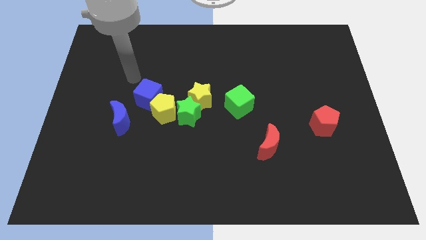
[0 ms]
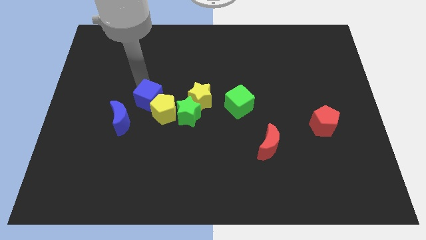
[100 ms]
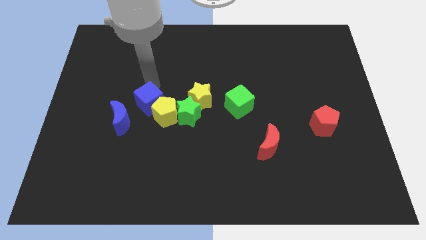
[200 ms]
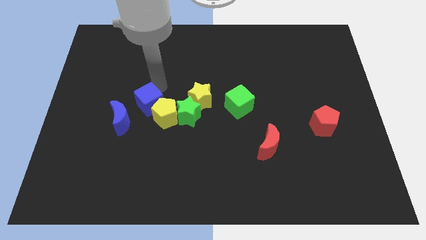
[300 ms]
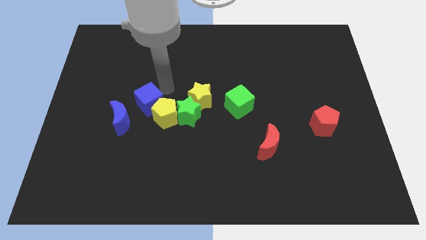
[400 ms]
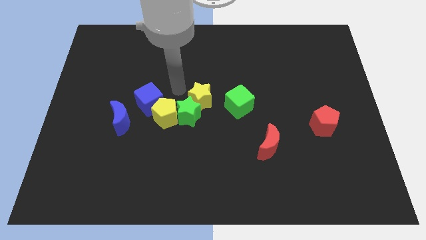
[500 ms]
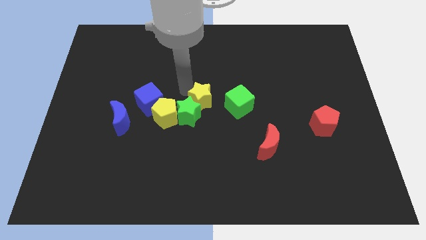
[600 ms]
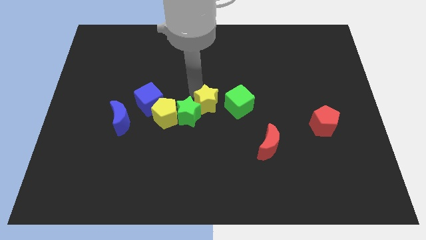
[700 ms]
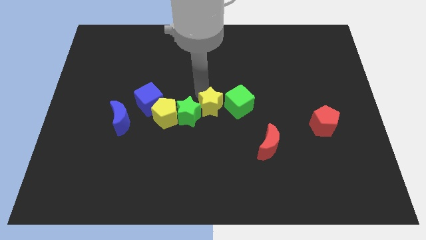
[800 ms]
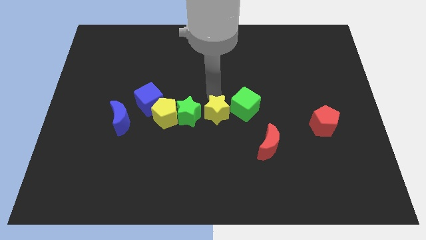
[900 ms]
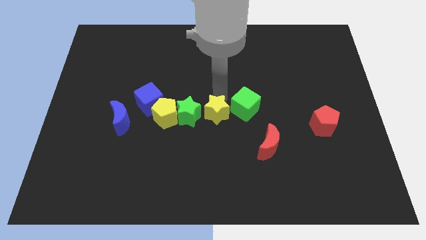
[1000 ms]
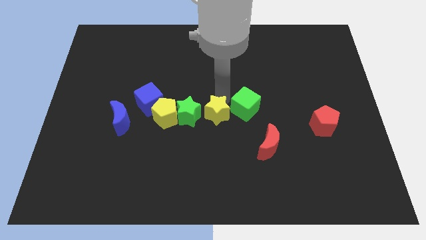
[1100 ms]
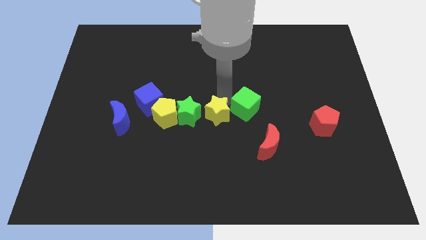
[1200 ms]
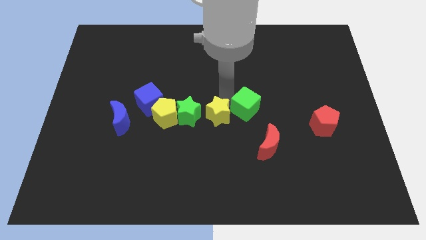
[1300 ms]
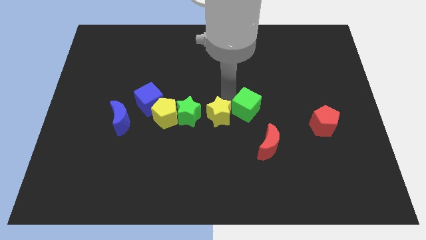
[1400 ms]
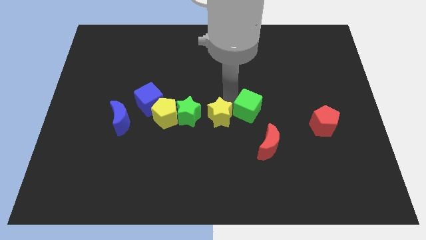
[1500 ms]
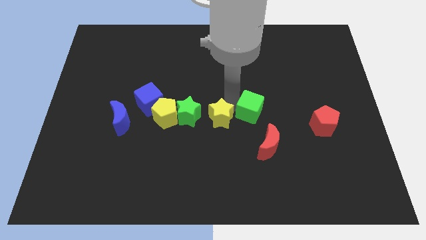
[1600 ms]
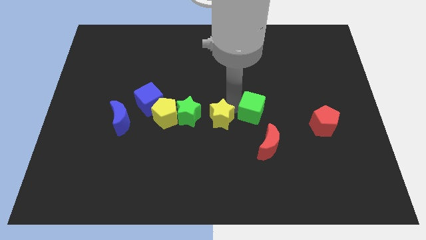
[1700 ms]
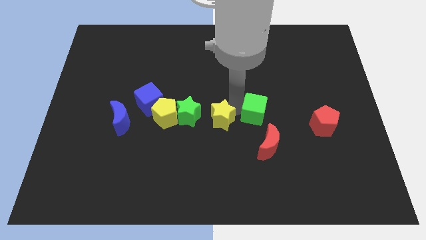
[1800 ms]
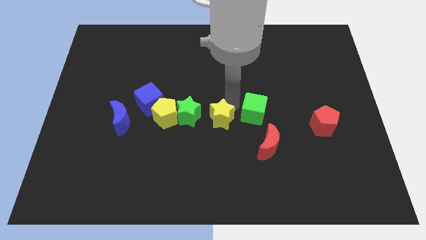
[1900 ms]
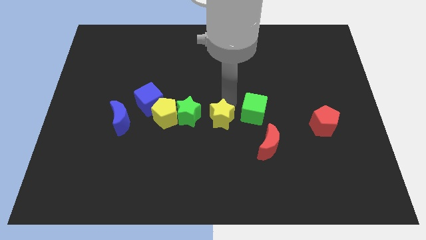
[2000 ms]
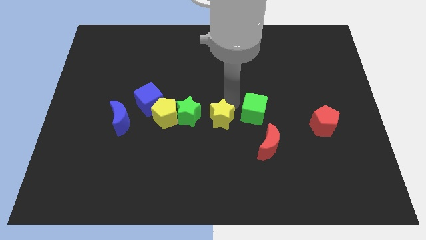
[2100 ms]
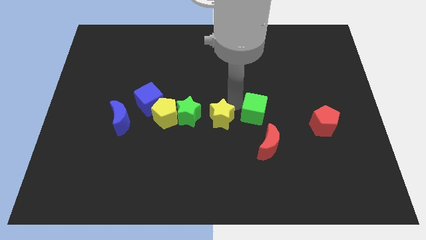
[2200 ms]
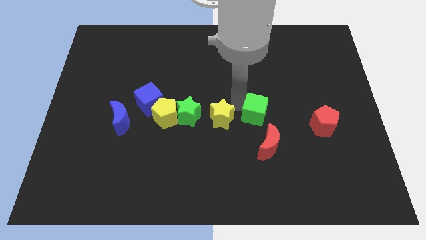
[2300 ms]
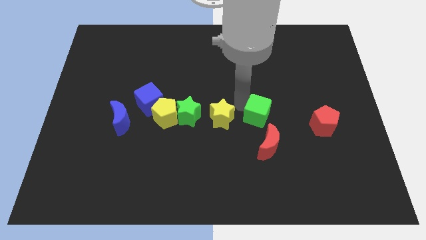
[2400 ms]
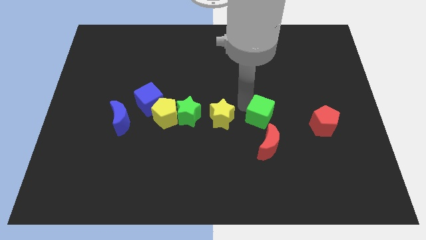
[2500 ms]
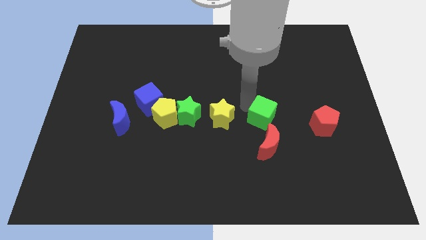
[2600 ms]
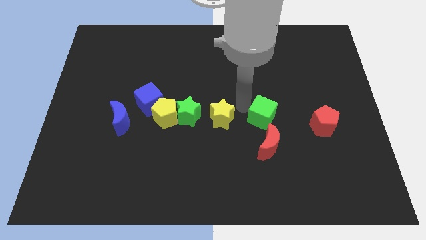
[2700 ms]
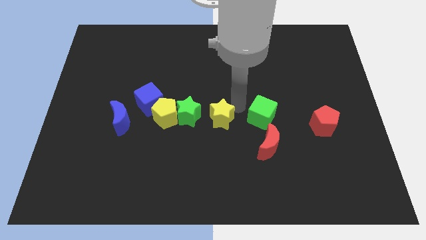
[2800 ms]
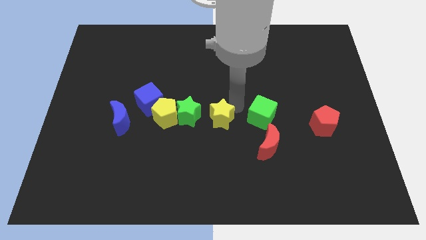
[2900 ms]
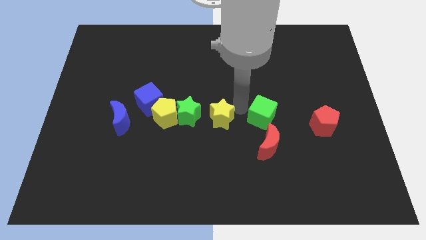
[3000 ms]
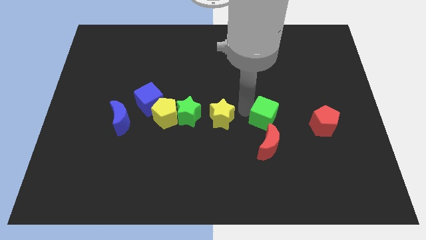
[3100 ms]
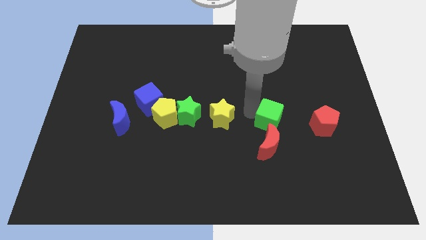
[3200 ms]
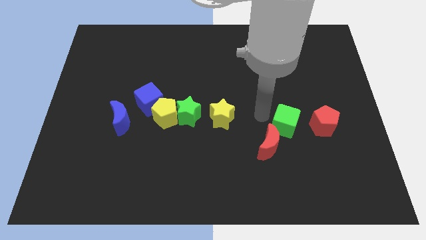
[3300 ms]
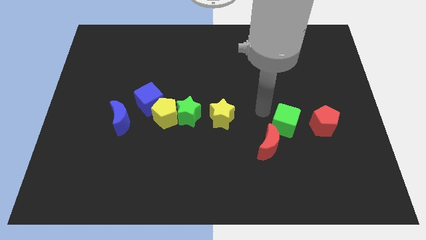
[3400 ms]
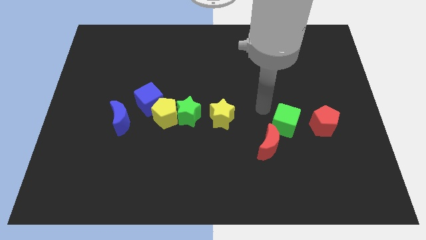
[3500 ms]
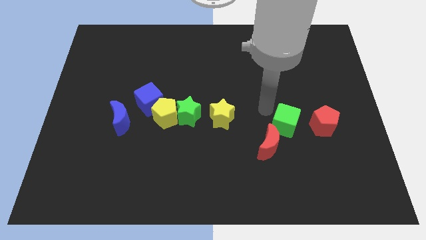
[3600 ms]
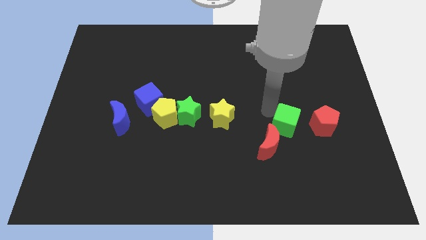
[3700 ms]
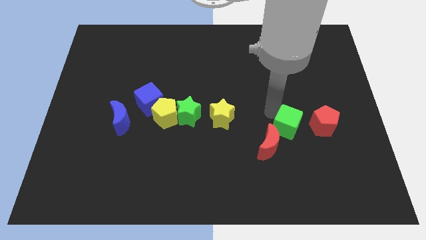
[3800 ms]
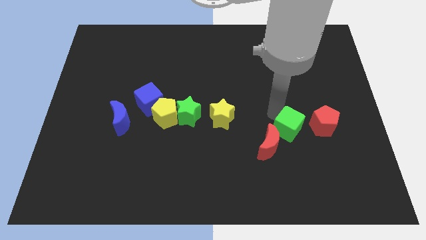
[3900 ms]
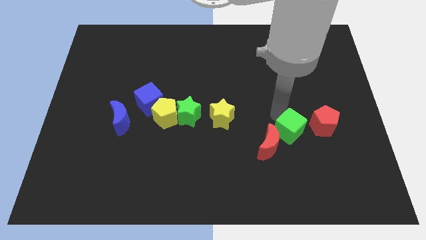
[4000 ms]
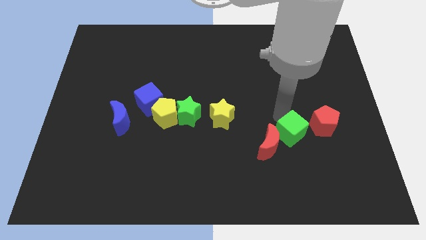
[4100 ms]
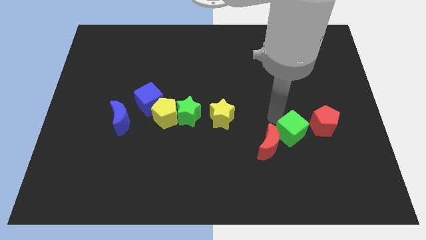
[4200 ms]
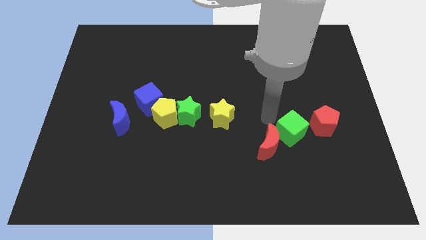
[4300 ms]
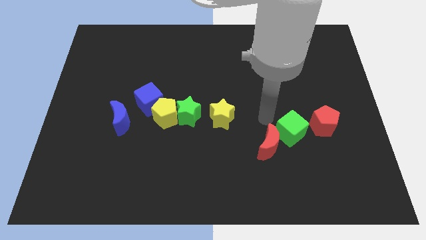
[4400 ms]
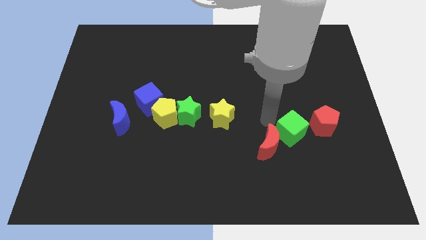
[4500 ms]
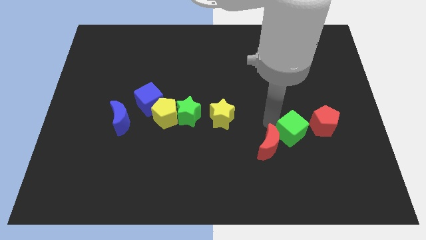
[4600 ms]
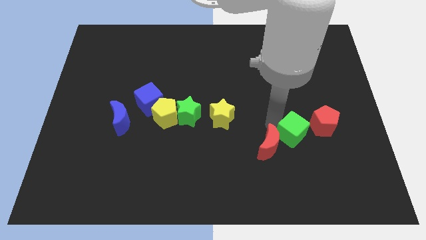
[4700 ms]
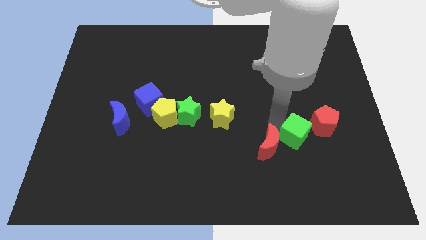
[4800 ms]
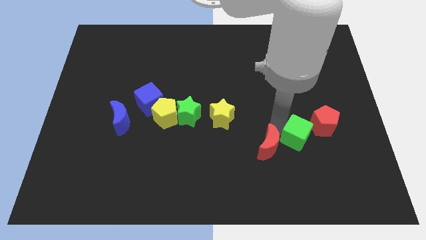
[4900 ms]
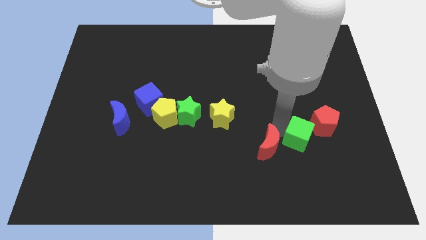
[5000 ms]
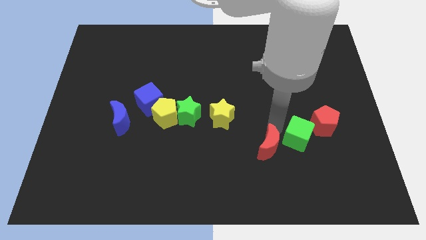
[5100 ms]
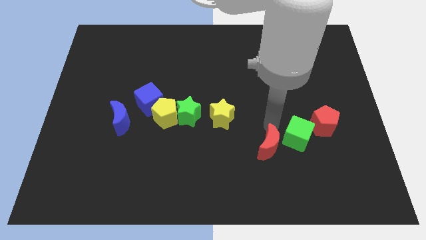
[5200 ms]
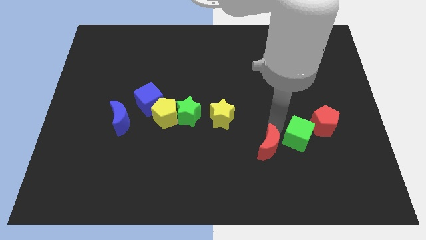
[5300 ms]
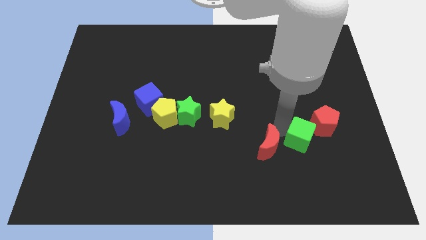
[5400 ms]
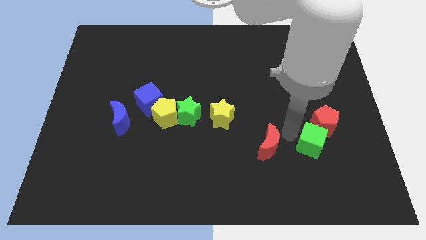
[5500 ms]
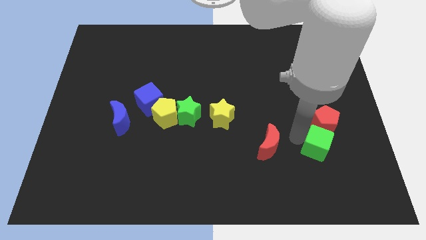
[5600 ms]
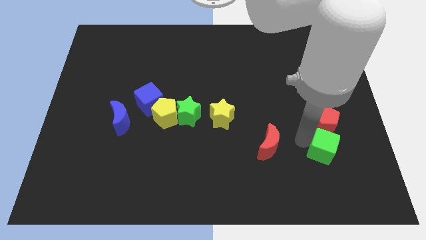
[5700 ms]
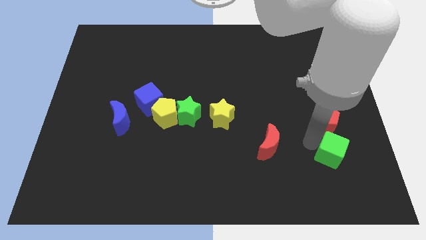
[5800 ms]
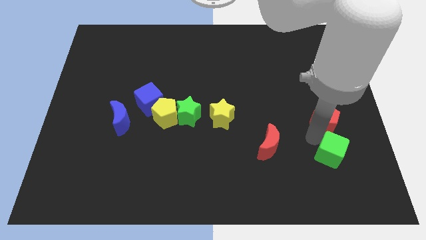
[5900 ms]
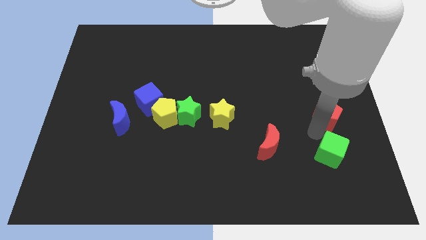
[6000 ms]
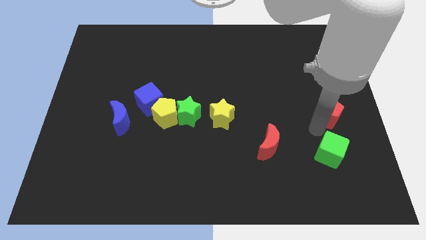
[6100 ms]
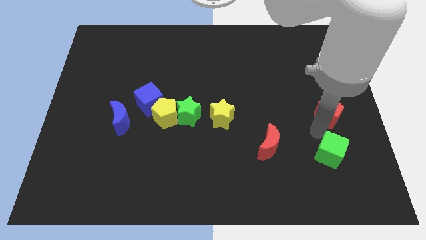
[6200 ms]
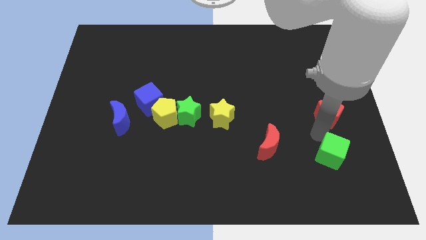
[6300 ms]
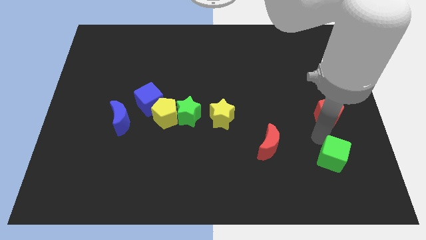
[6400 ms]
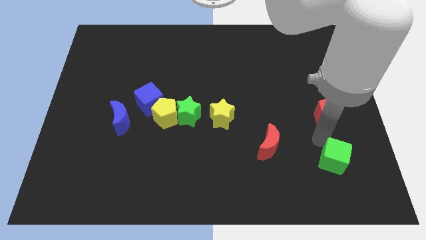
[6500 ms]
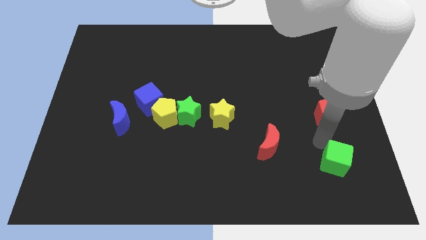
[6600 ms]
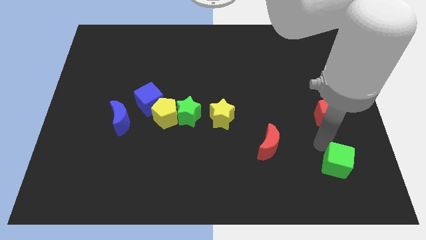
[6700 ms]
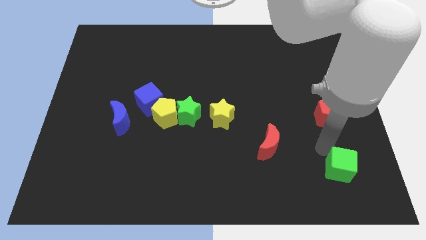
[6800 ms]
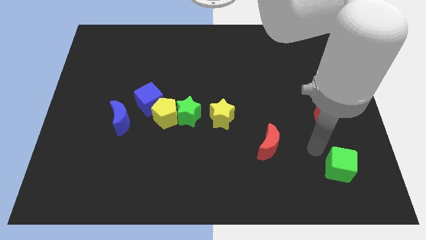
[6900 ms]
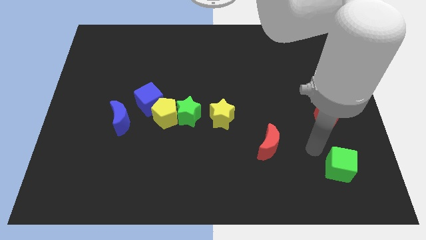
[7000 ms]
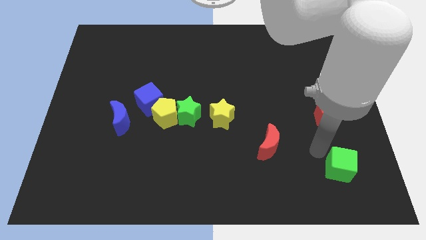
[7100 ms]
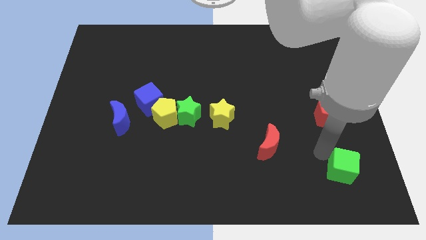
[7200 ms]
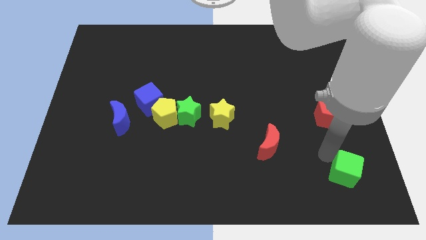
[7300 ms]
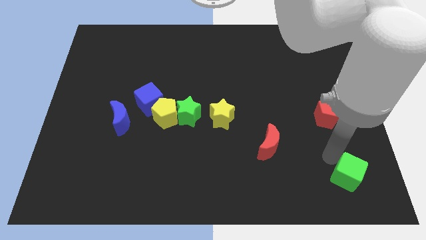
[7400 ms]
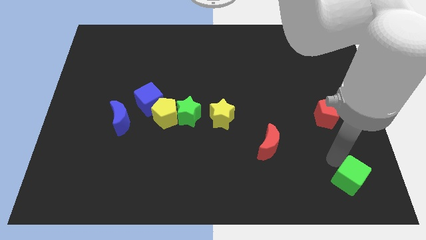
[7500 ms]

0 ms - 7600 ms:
move the green cube to the bottom right
